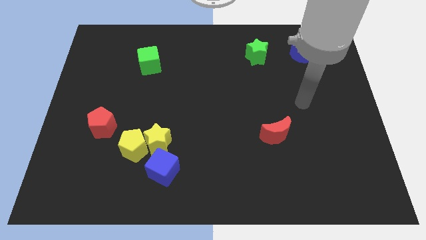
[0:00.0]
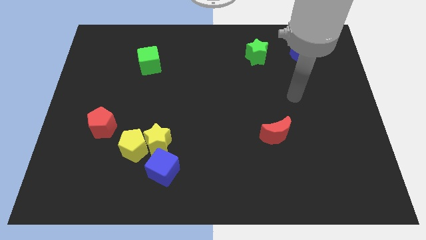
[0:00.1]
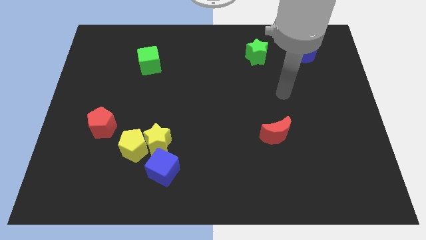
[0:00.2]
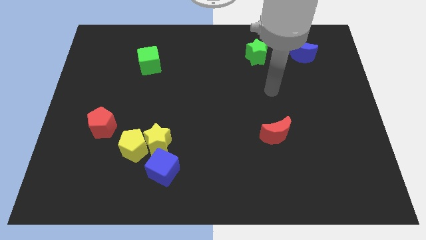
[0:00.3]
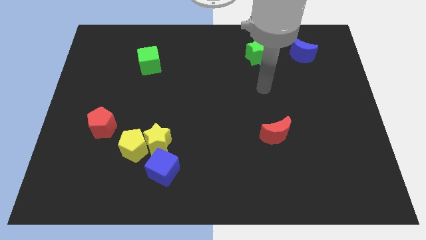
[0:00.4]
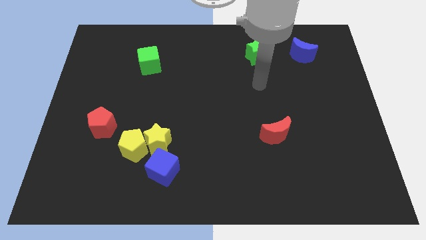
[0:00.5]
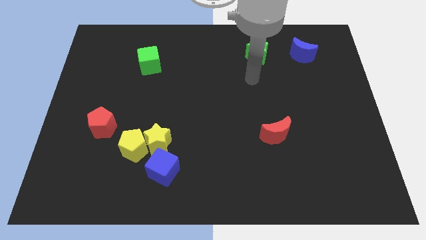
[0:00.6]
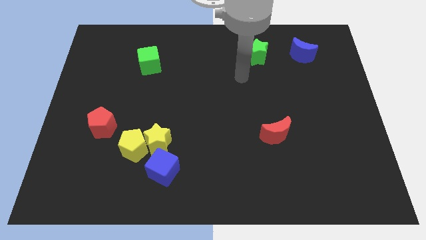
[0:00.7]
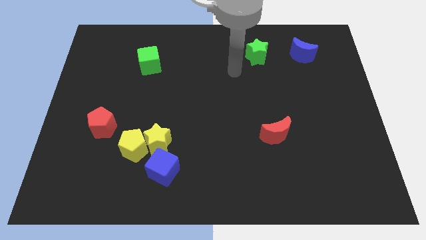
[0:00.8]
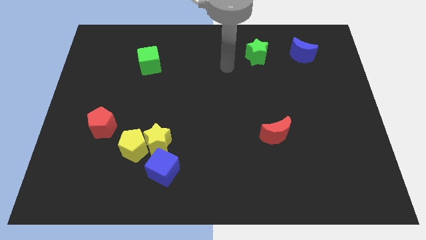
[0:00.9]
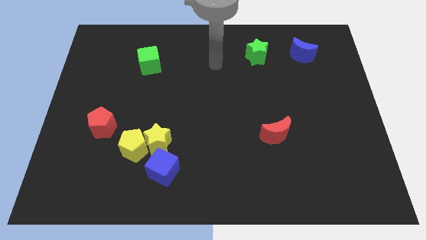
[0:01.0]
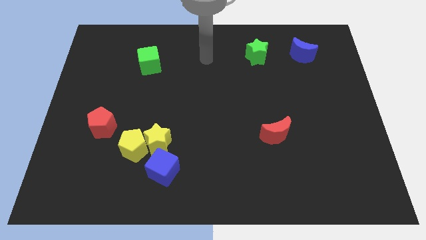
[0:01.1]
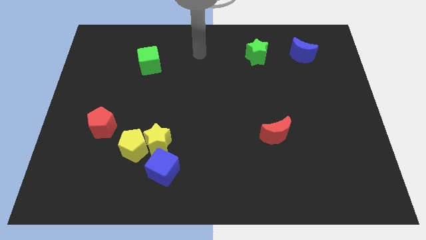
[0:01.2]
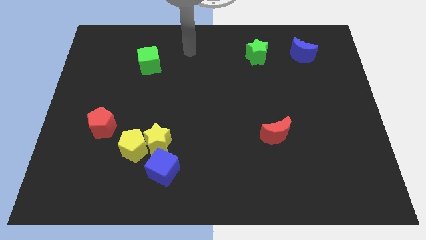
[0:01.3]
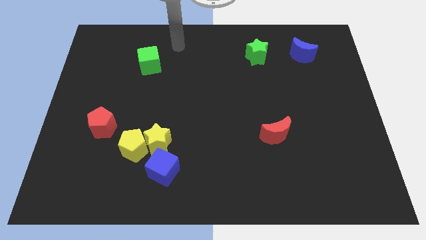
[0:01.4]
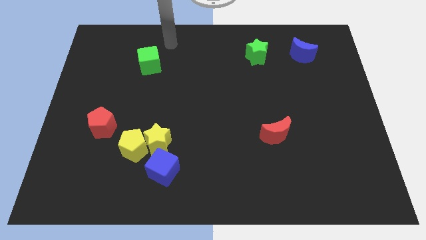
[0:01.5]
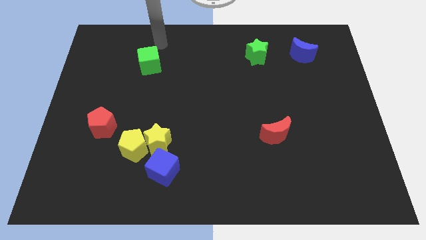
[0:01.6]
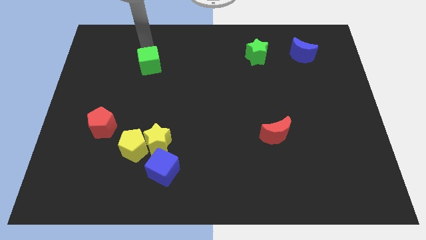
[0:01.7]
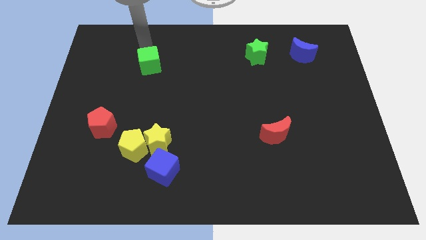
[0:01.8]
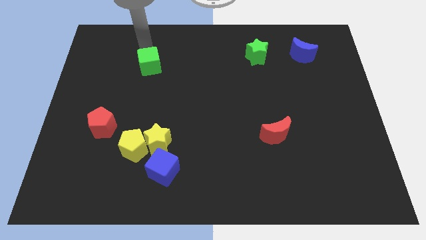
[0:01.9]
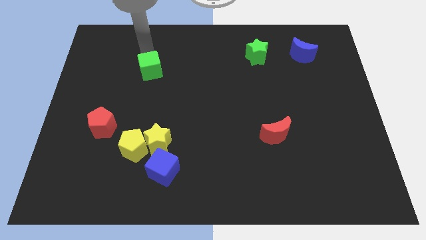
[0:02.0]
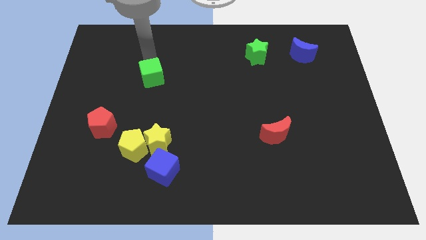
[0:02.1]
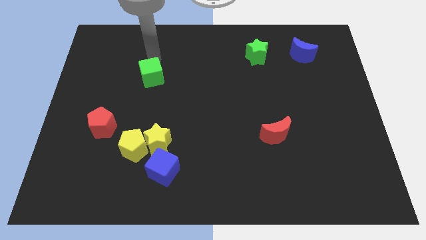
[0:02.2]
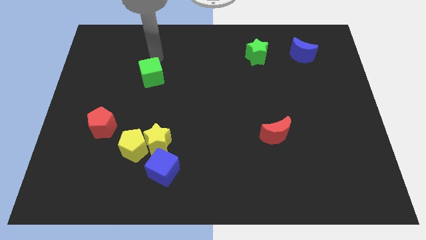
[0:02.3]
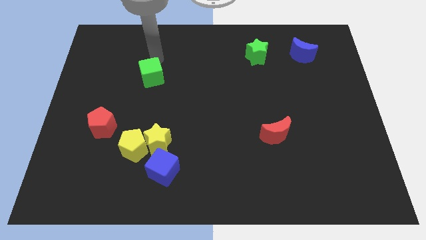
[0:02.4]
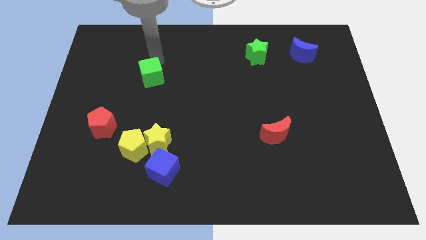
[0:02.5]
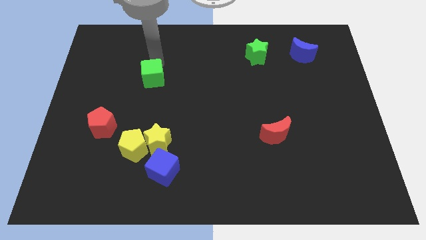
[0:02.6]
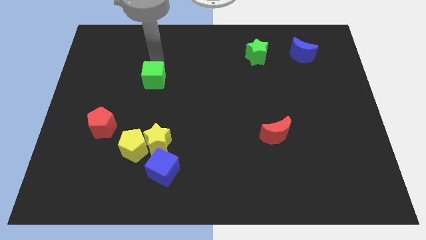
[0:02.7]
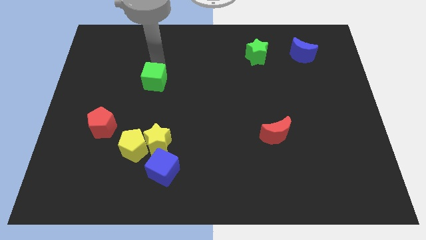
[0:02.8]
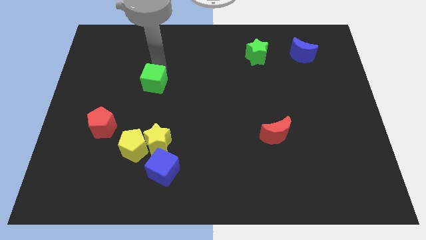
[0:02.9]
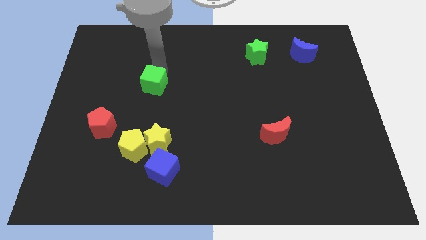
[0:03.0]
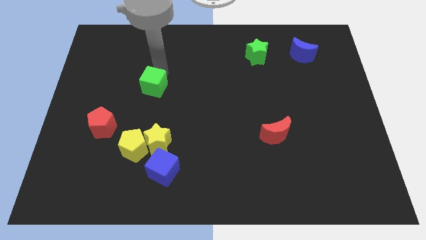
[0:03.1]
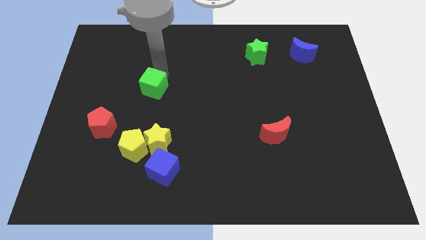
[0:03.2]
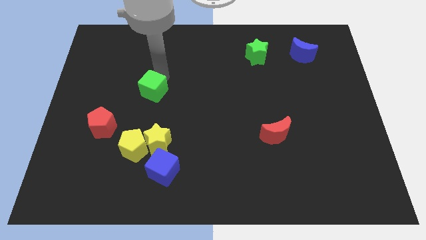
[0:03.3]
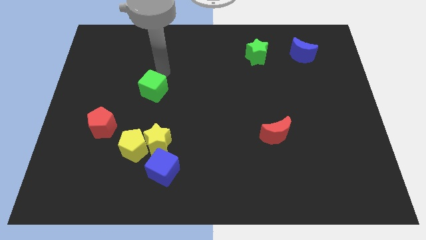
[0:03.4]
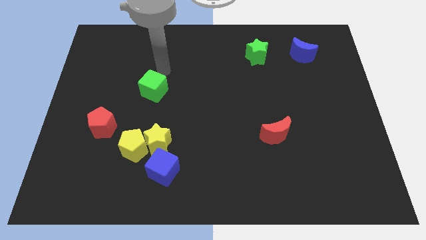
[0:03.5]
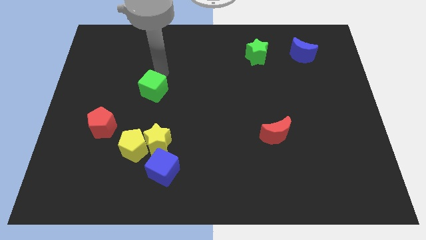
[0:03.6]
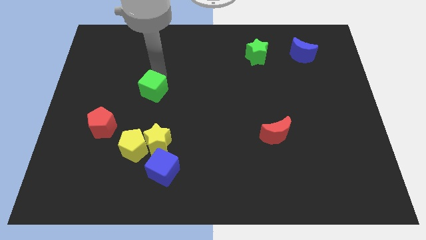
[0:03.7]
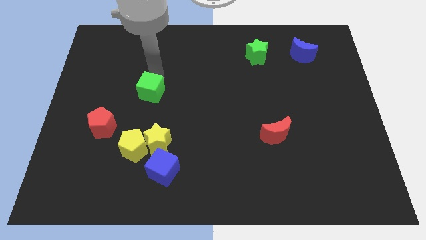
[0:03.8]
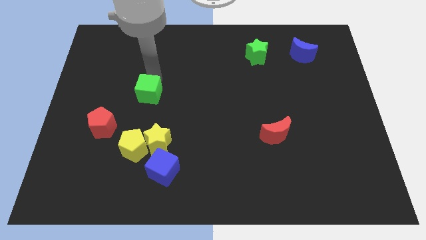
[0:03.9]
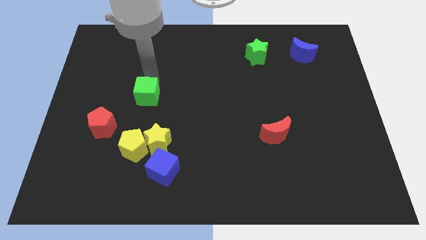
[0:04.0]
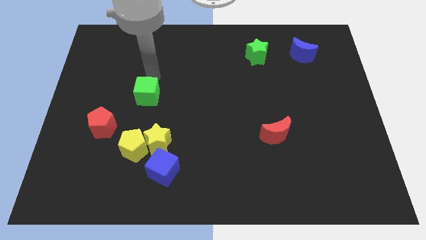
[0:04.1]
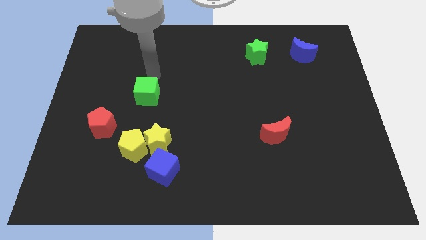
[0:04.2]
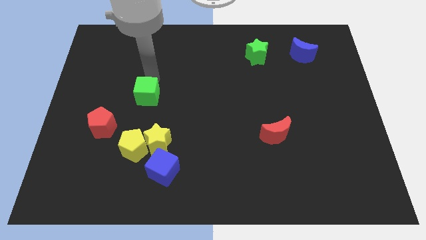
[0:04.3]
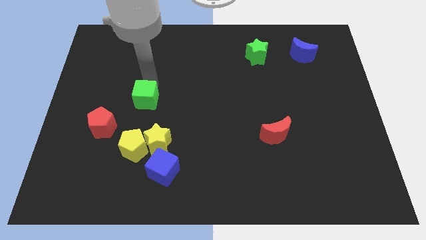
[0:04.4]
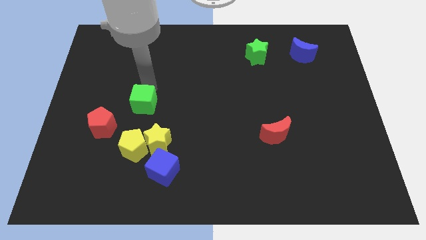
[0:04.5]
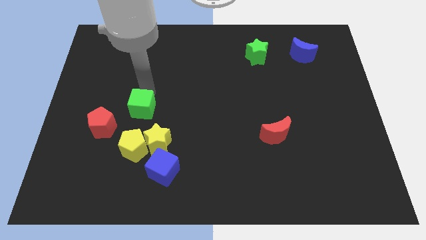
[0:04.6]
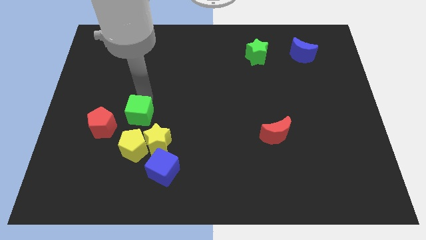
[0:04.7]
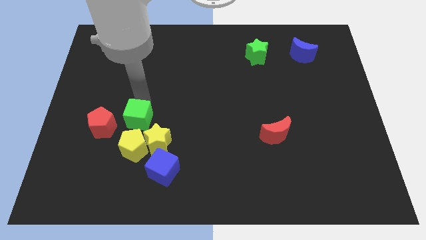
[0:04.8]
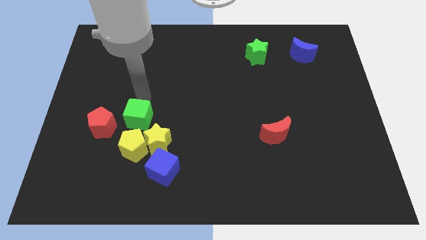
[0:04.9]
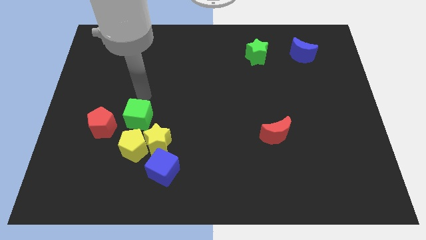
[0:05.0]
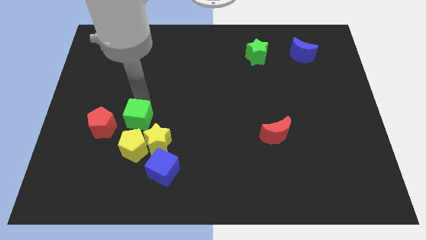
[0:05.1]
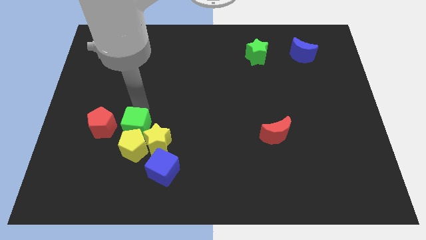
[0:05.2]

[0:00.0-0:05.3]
move the green cube to the yellow pentagon

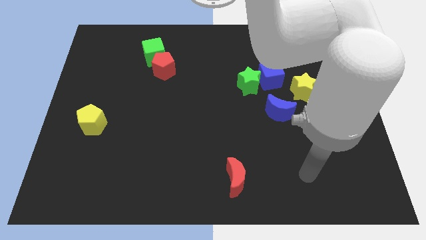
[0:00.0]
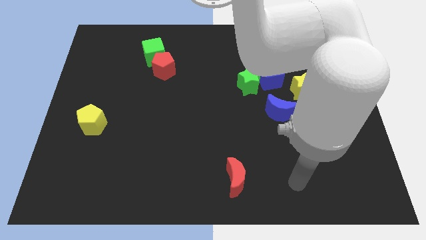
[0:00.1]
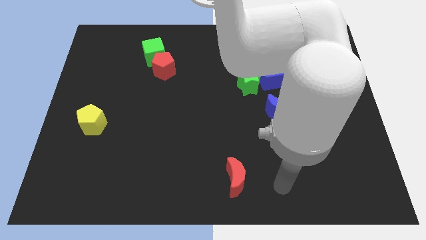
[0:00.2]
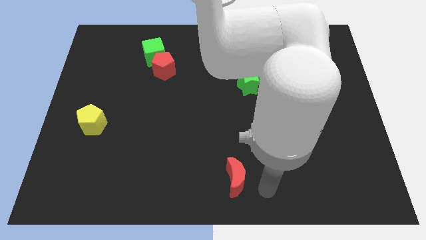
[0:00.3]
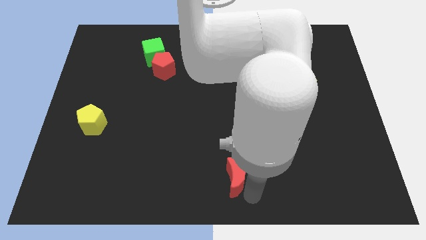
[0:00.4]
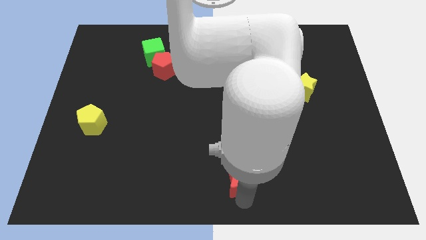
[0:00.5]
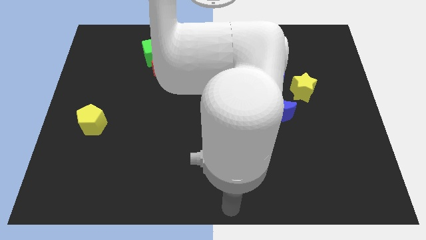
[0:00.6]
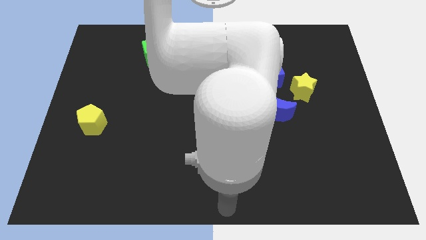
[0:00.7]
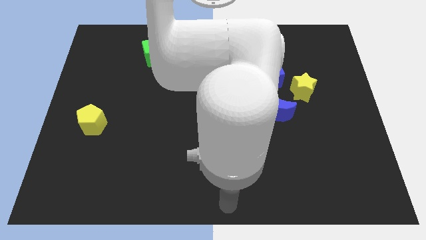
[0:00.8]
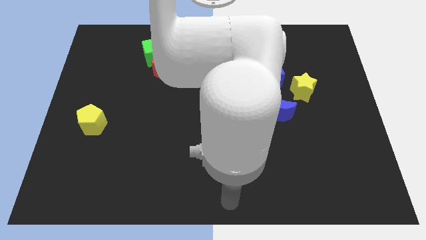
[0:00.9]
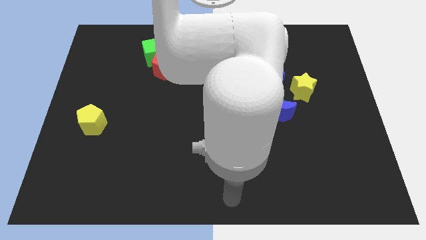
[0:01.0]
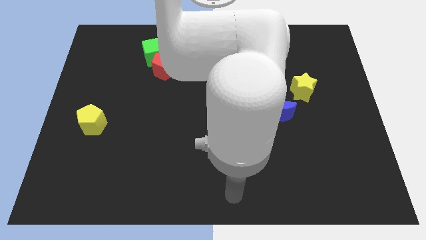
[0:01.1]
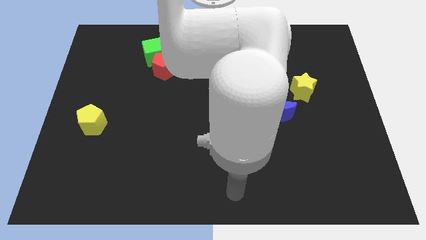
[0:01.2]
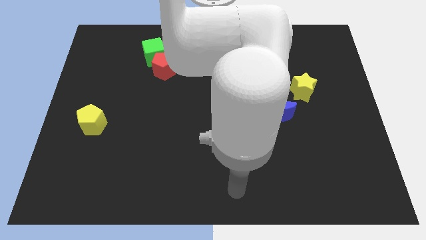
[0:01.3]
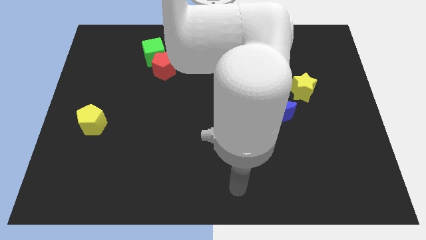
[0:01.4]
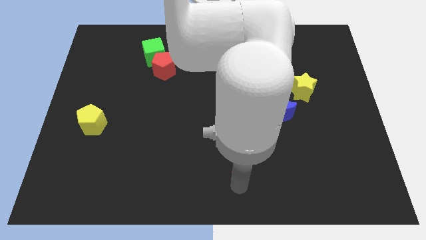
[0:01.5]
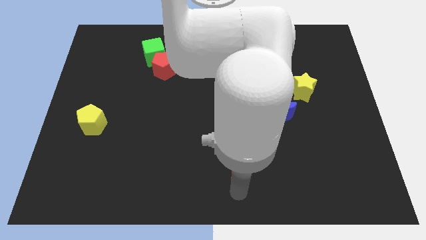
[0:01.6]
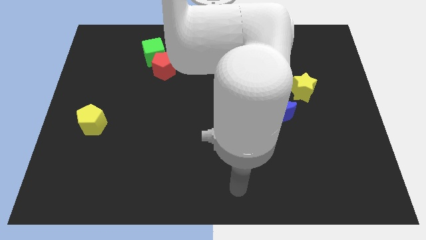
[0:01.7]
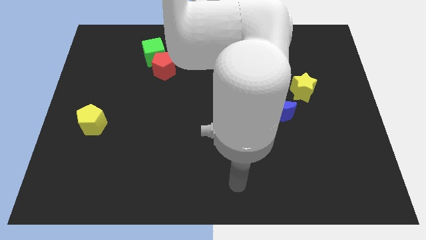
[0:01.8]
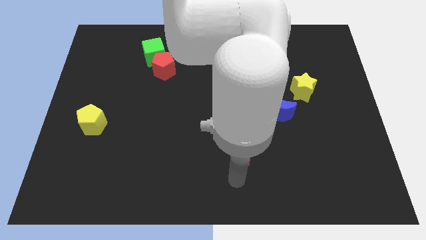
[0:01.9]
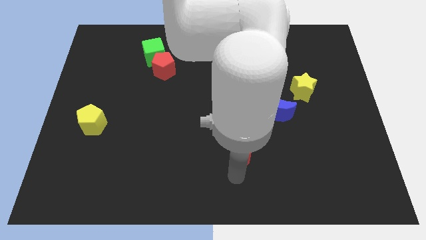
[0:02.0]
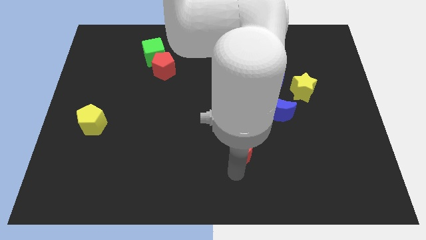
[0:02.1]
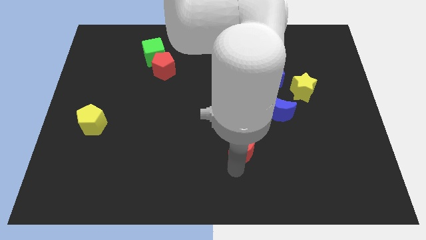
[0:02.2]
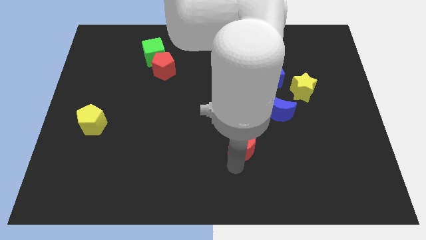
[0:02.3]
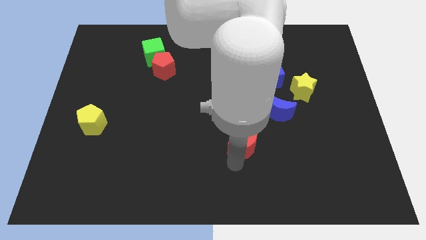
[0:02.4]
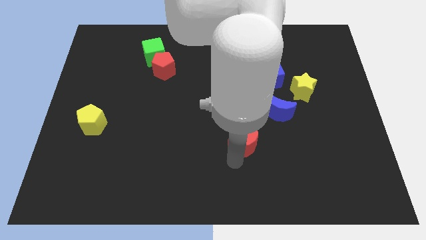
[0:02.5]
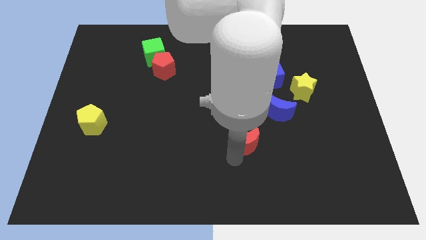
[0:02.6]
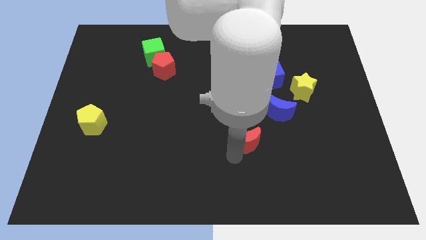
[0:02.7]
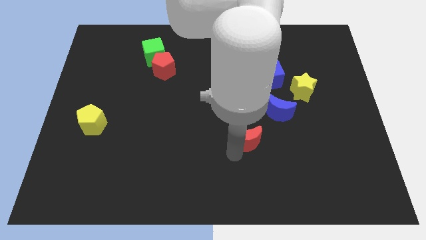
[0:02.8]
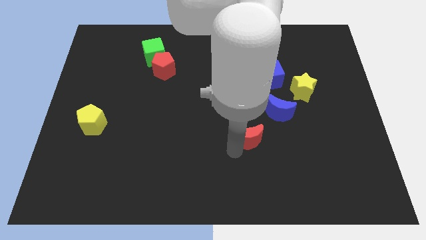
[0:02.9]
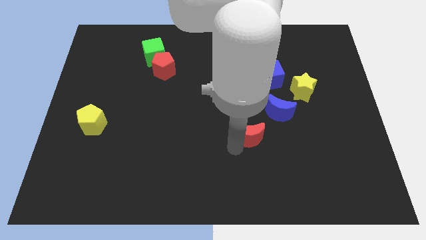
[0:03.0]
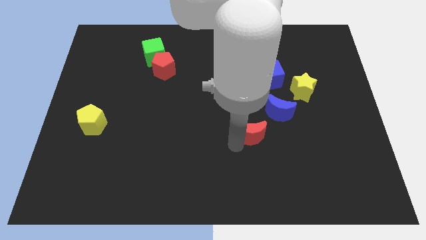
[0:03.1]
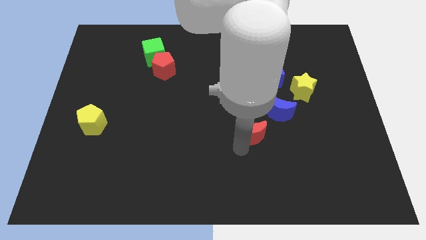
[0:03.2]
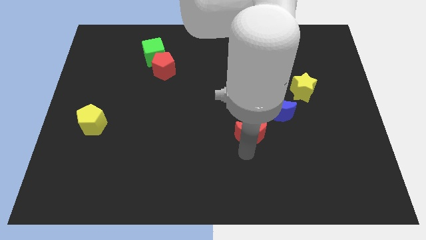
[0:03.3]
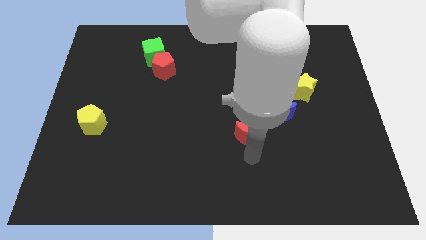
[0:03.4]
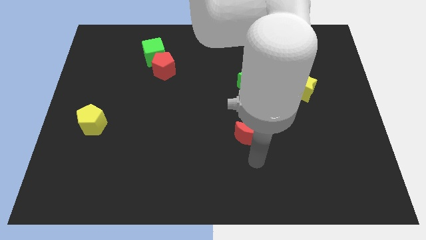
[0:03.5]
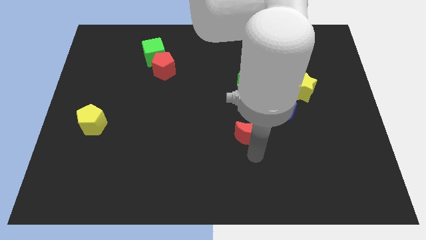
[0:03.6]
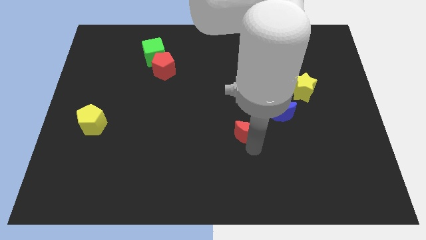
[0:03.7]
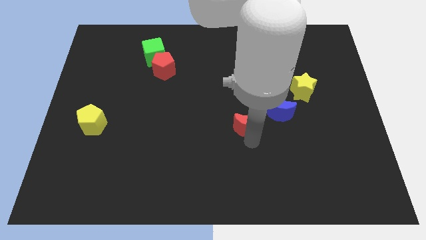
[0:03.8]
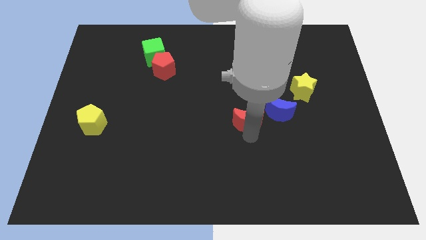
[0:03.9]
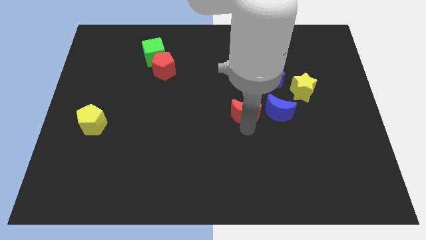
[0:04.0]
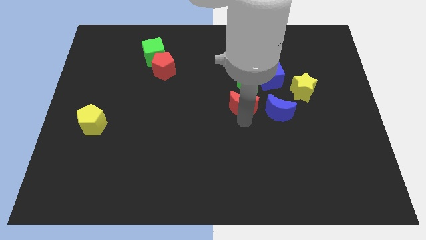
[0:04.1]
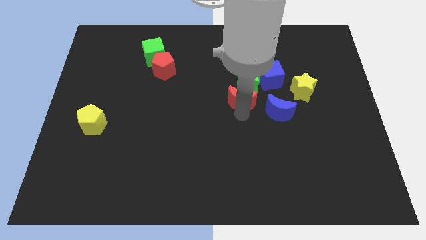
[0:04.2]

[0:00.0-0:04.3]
put the red moon towards the green star
